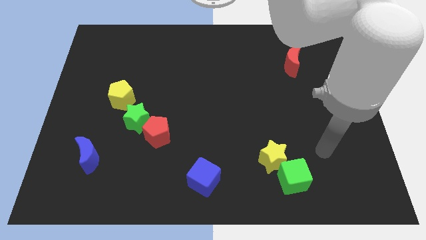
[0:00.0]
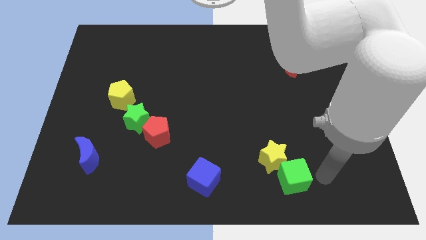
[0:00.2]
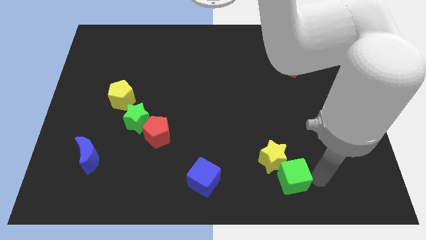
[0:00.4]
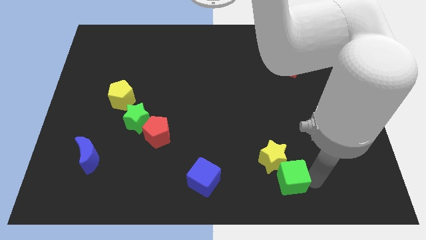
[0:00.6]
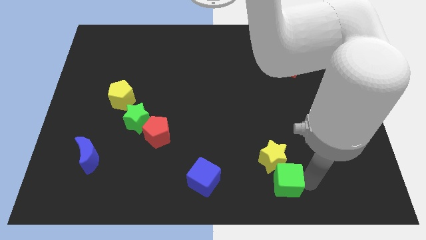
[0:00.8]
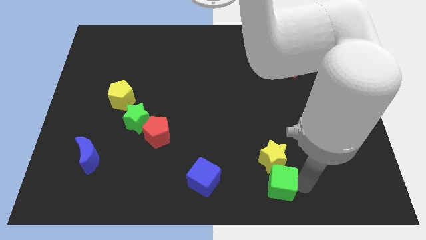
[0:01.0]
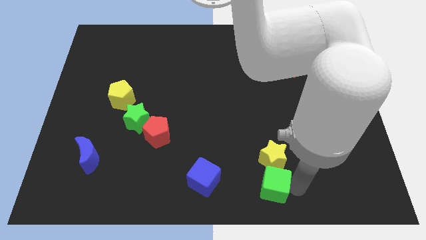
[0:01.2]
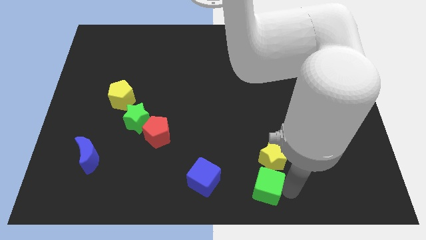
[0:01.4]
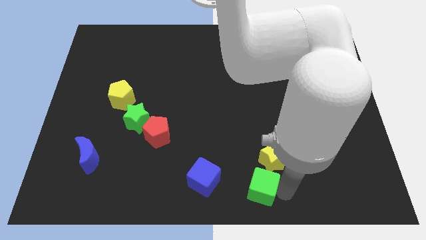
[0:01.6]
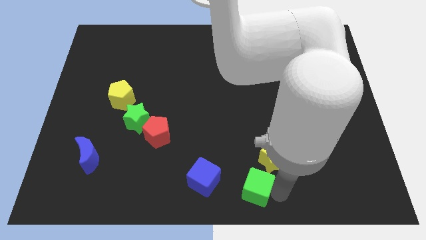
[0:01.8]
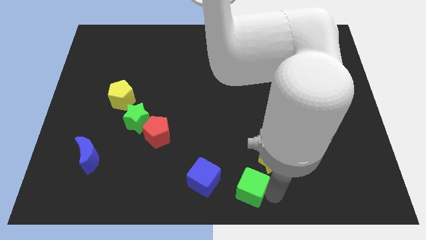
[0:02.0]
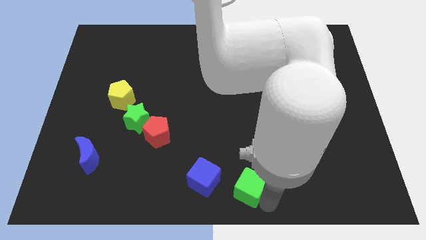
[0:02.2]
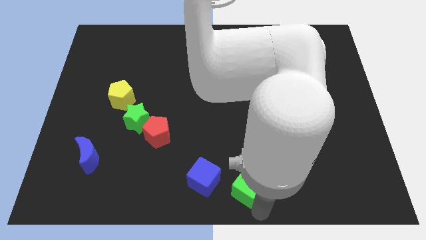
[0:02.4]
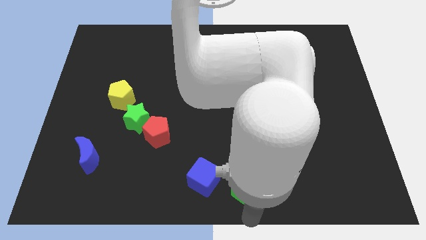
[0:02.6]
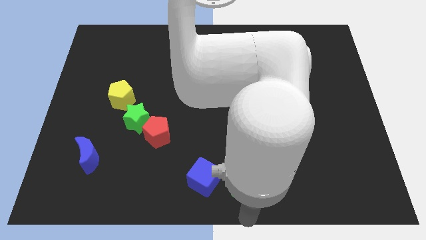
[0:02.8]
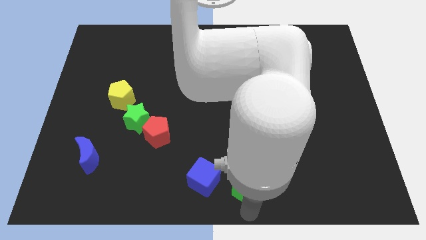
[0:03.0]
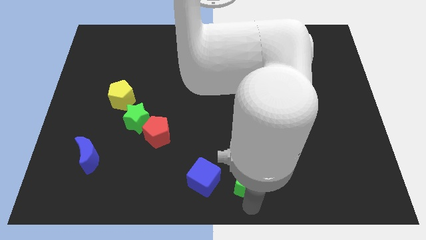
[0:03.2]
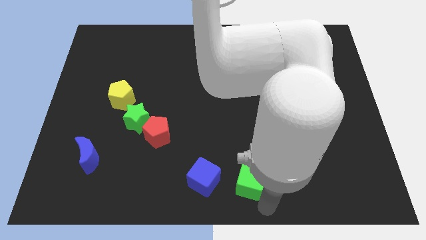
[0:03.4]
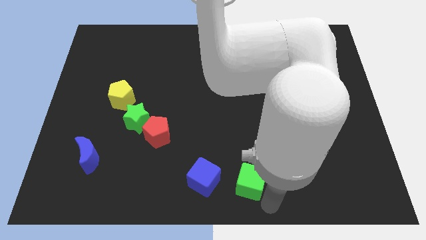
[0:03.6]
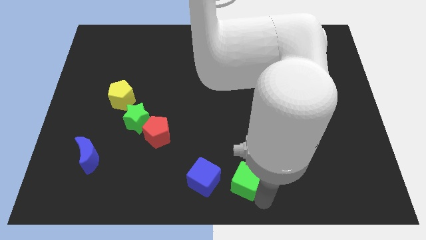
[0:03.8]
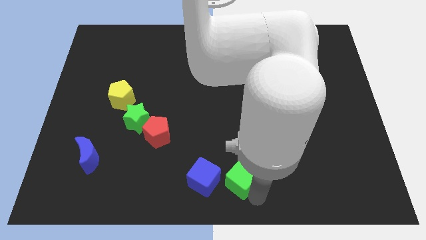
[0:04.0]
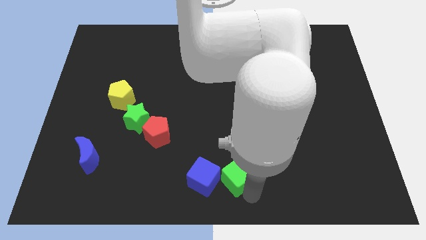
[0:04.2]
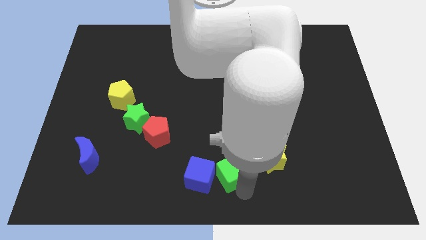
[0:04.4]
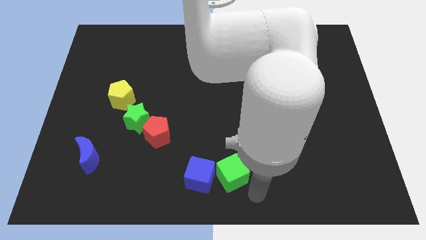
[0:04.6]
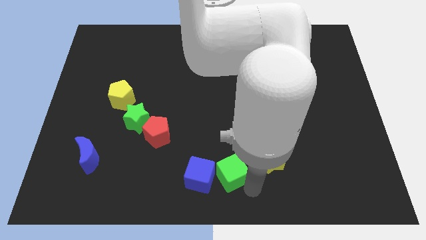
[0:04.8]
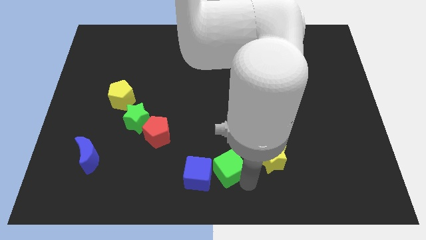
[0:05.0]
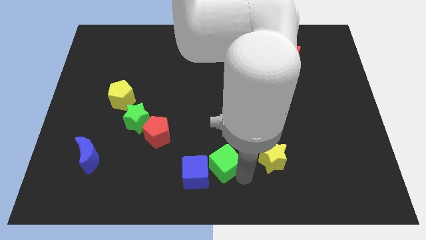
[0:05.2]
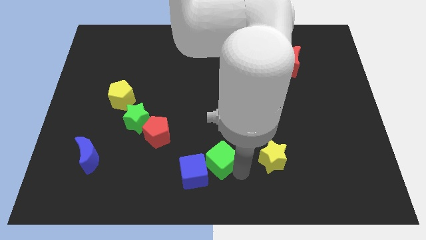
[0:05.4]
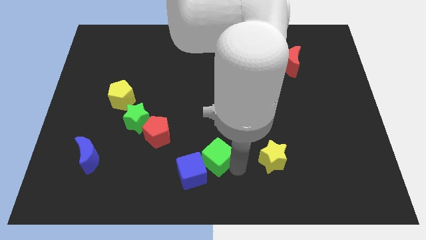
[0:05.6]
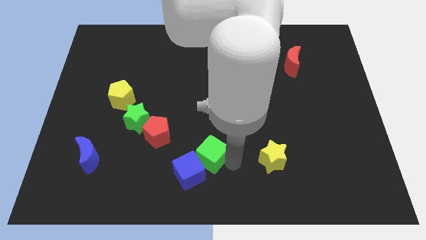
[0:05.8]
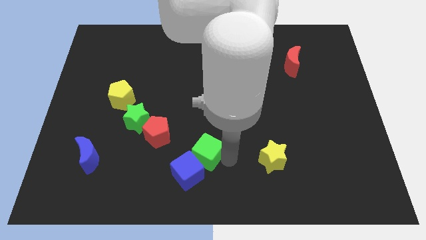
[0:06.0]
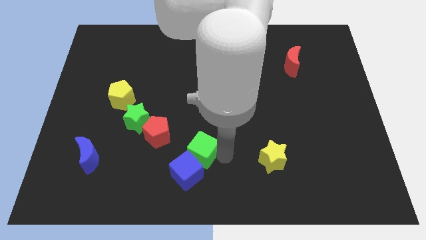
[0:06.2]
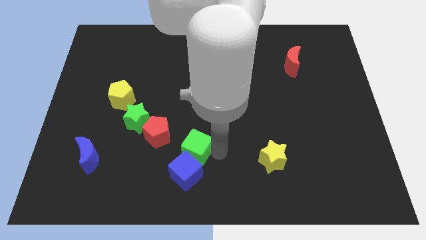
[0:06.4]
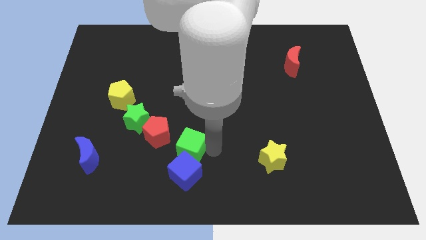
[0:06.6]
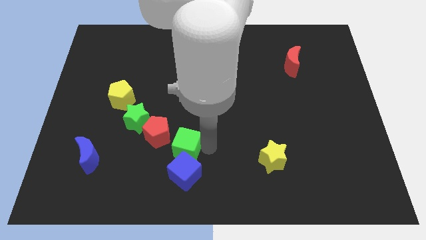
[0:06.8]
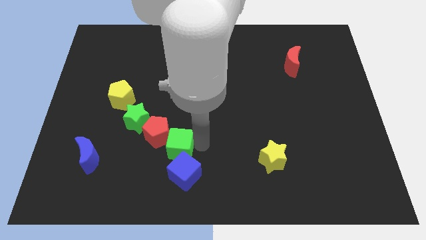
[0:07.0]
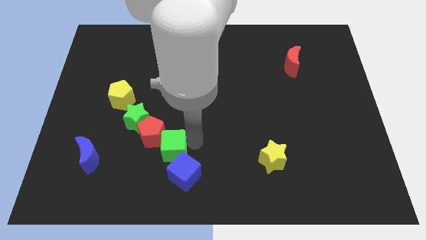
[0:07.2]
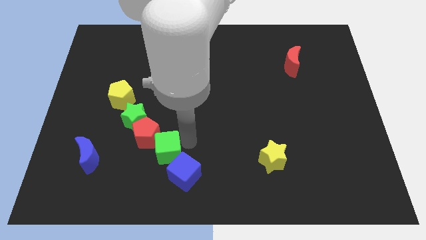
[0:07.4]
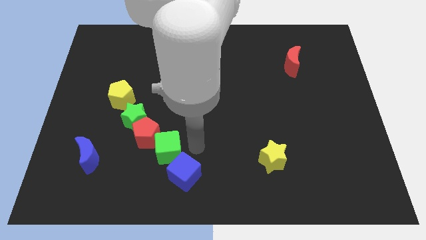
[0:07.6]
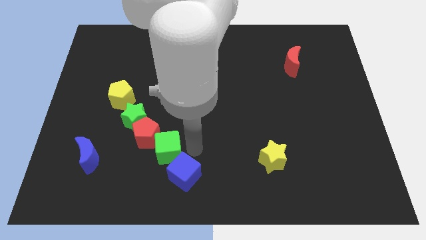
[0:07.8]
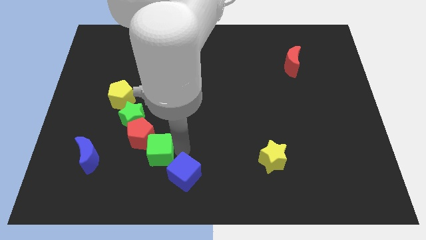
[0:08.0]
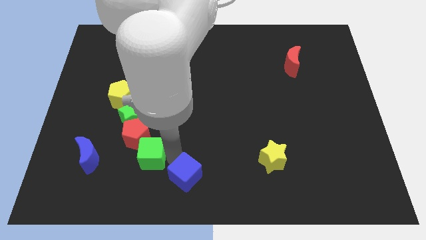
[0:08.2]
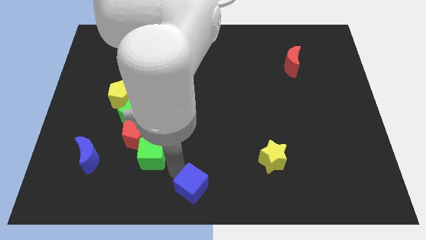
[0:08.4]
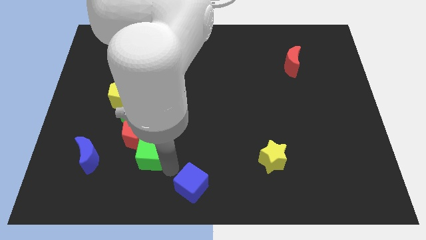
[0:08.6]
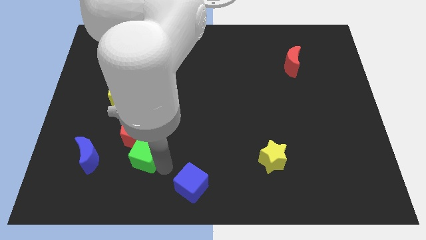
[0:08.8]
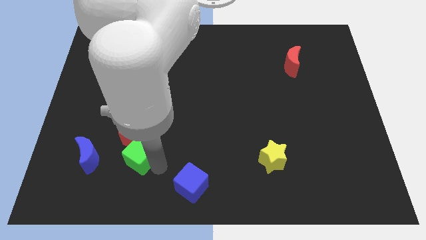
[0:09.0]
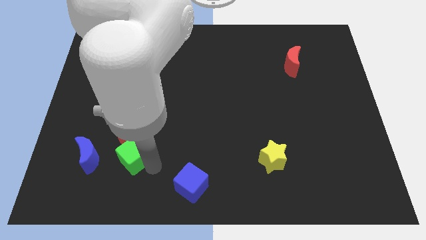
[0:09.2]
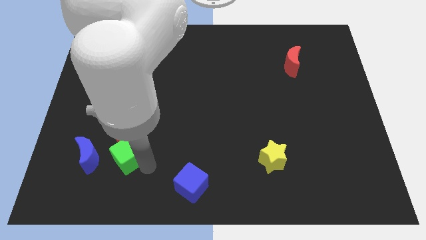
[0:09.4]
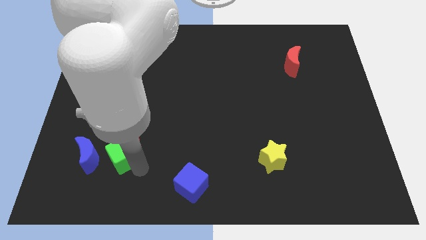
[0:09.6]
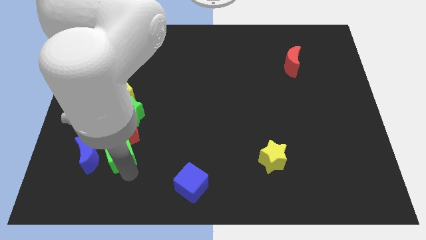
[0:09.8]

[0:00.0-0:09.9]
slide the green cube to the top right side of the blue moon

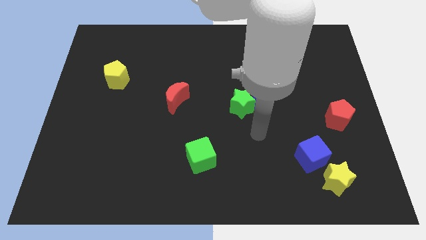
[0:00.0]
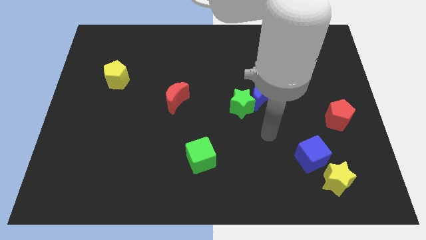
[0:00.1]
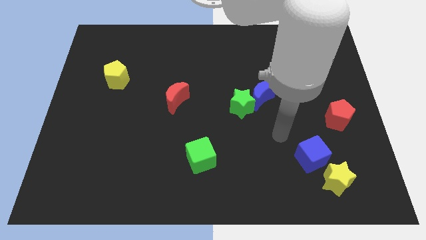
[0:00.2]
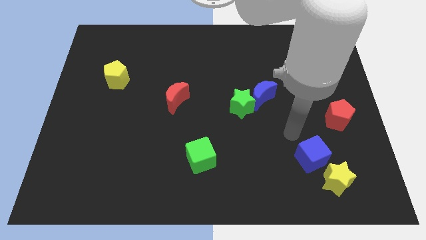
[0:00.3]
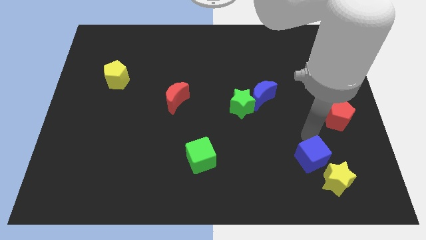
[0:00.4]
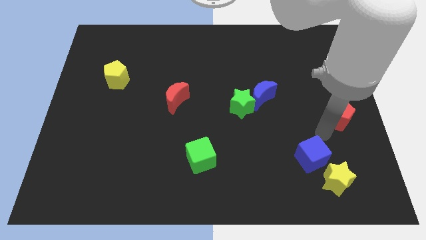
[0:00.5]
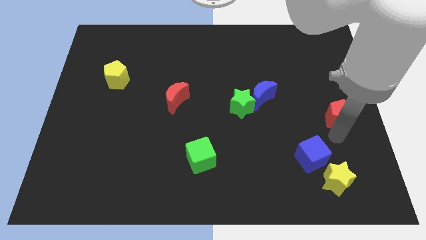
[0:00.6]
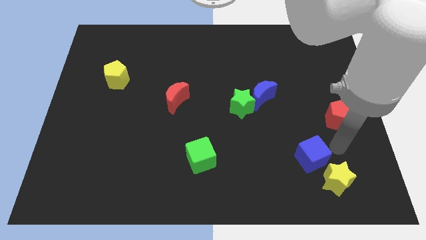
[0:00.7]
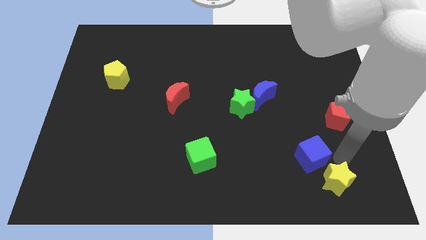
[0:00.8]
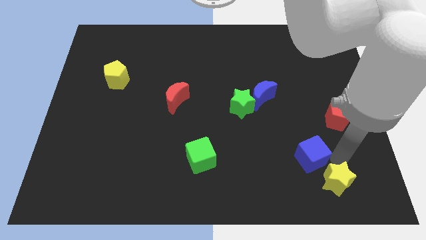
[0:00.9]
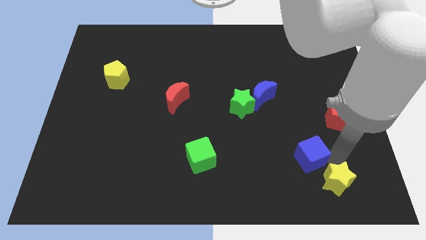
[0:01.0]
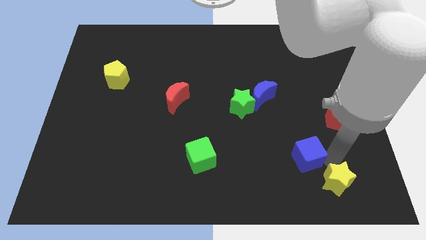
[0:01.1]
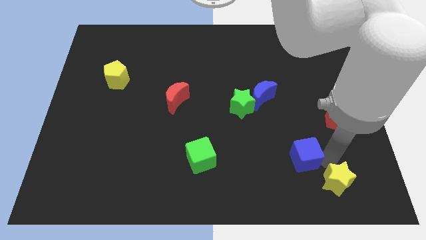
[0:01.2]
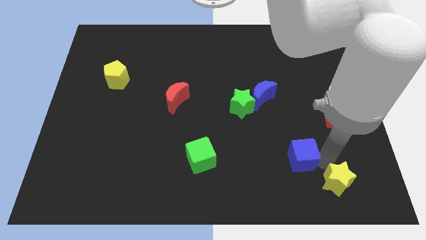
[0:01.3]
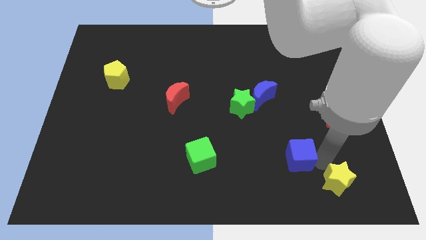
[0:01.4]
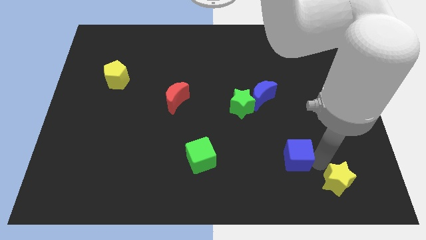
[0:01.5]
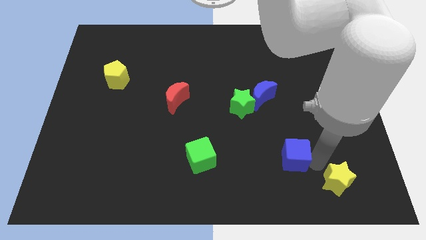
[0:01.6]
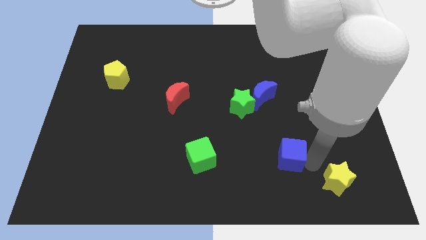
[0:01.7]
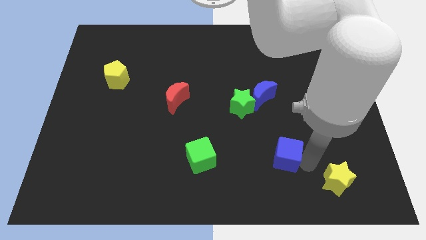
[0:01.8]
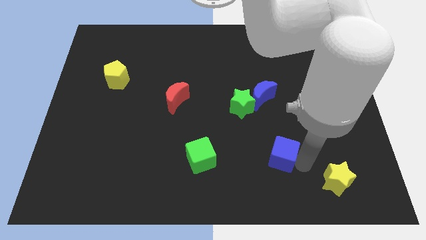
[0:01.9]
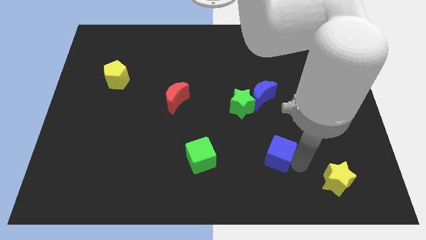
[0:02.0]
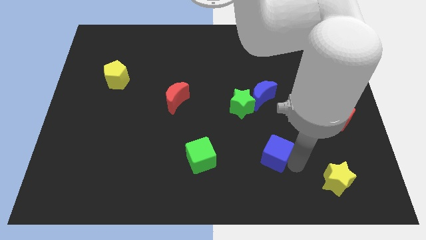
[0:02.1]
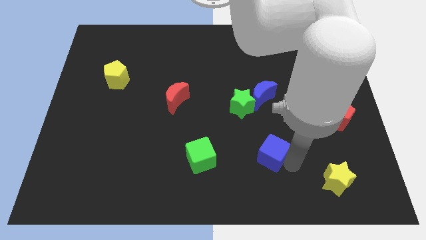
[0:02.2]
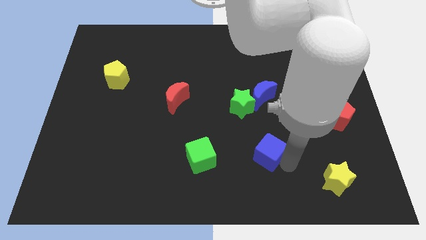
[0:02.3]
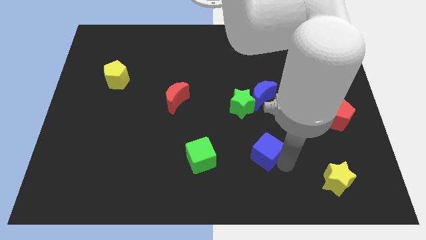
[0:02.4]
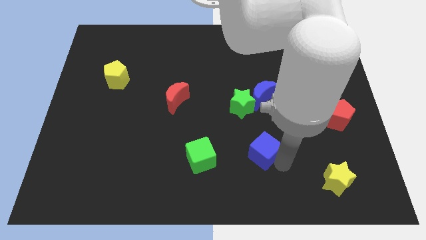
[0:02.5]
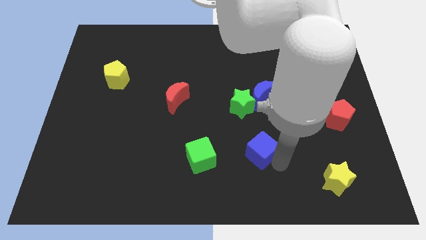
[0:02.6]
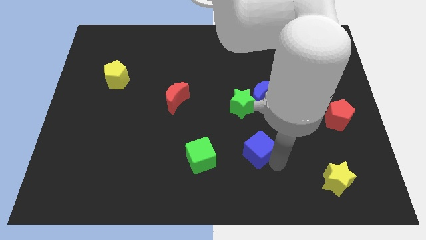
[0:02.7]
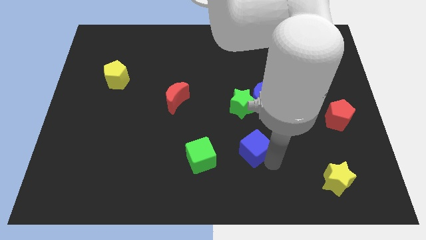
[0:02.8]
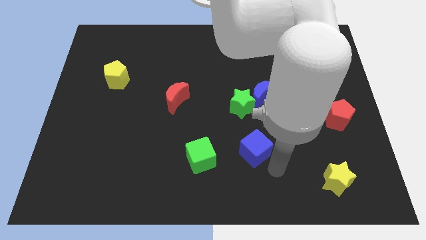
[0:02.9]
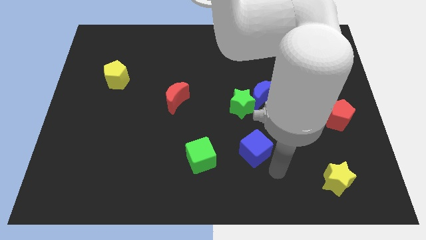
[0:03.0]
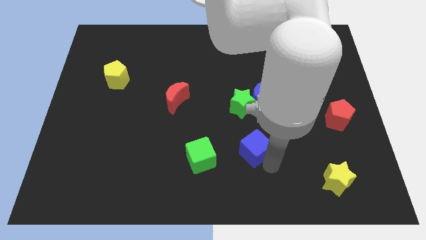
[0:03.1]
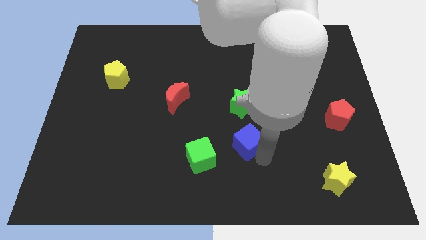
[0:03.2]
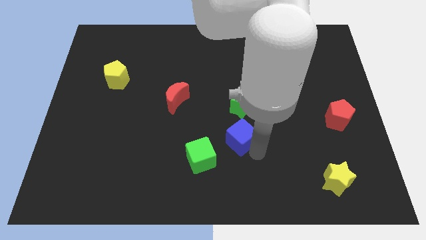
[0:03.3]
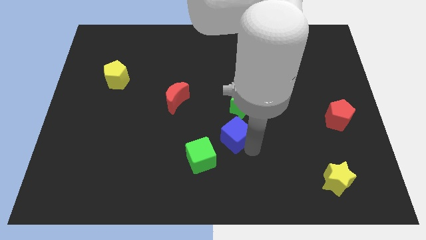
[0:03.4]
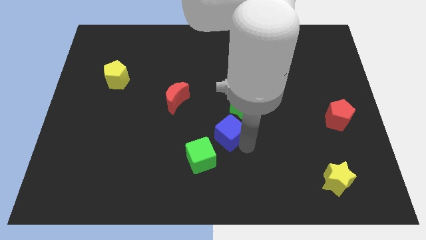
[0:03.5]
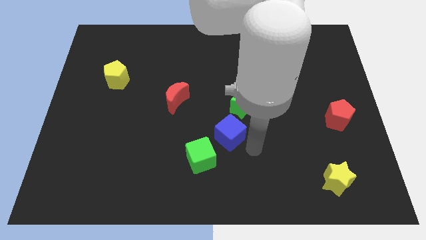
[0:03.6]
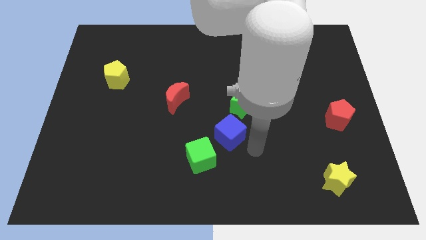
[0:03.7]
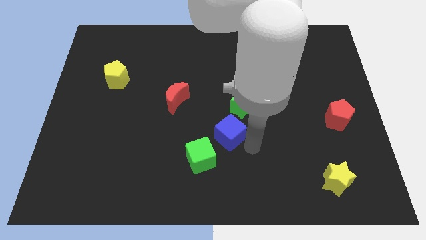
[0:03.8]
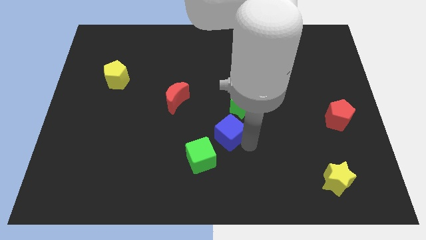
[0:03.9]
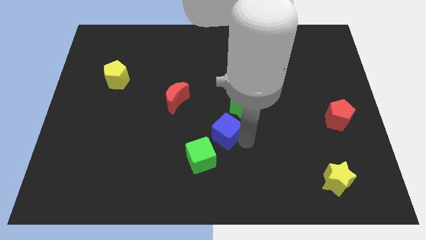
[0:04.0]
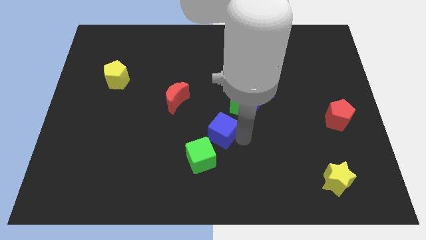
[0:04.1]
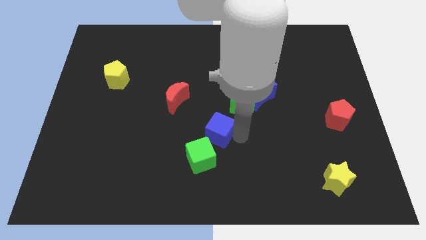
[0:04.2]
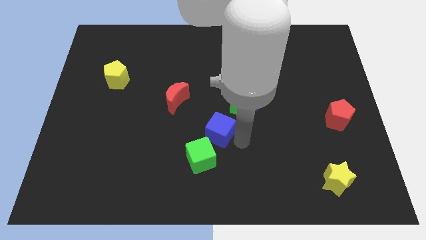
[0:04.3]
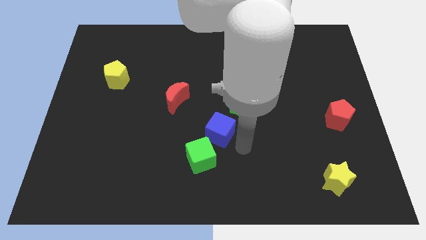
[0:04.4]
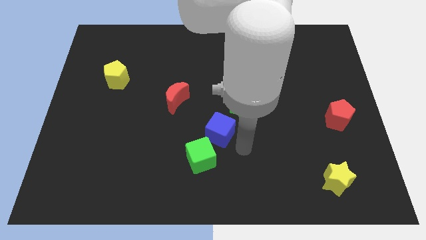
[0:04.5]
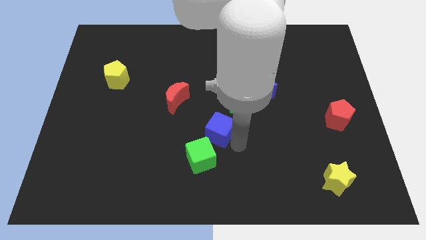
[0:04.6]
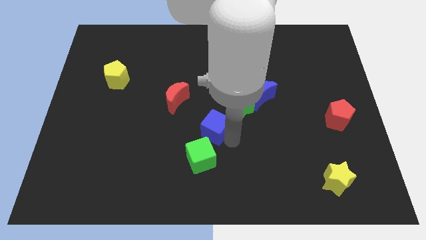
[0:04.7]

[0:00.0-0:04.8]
push the blue cube diagonally down and to the right of the red moon
